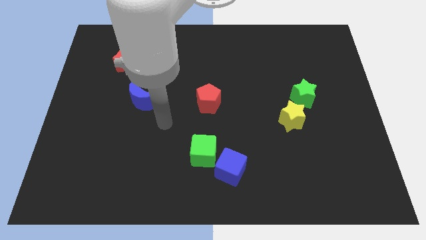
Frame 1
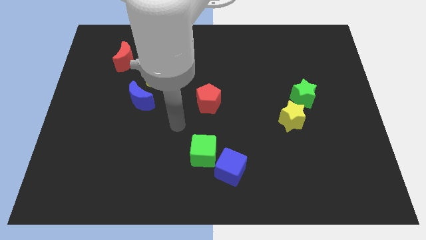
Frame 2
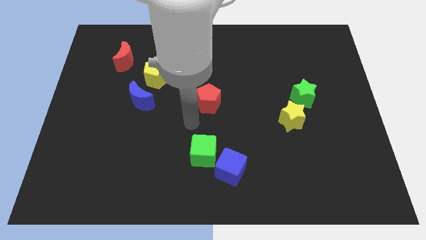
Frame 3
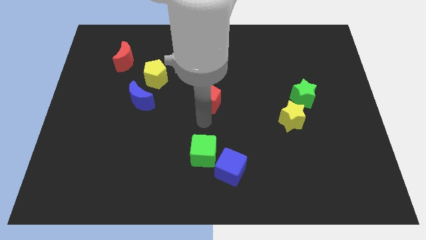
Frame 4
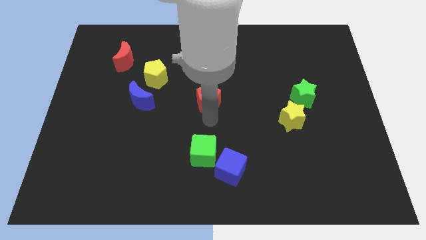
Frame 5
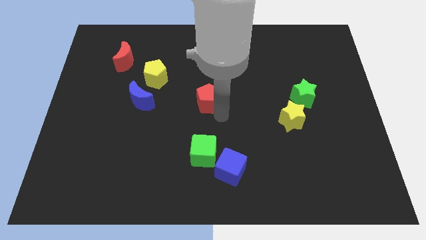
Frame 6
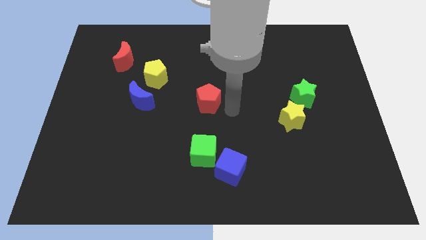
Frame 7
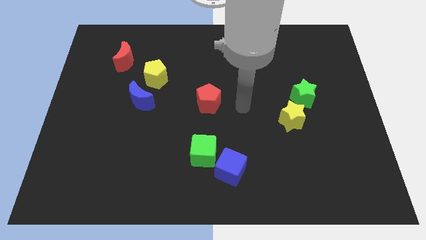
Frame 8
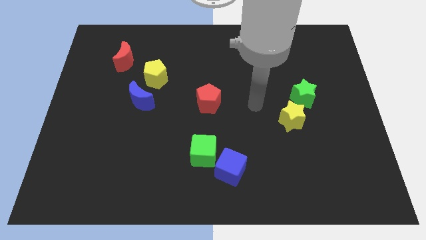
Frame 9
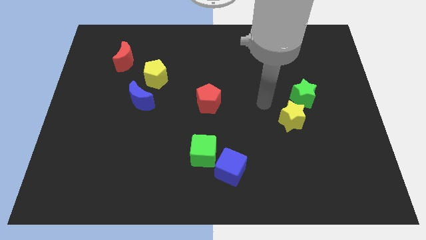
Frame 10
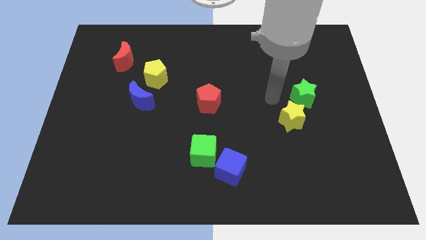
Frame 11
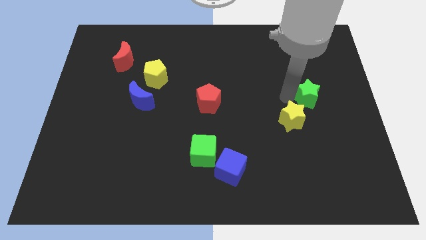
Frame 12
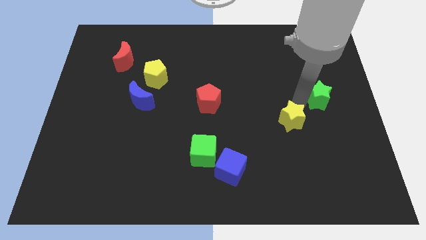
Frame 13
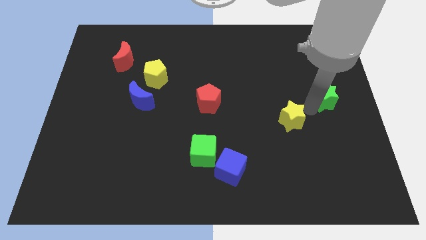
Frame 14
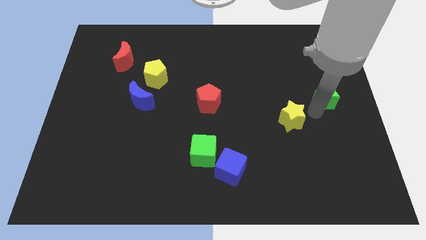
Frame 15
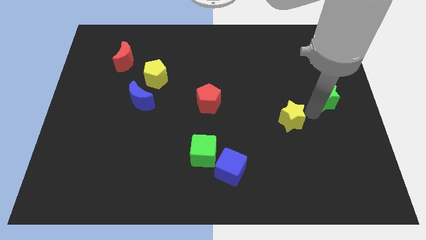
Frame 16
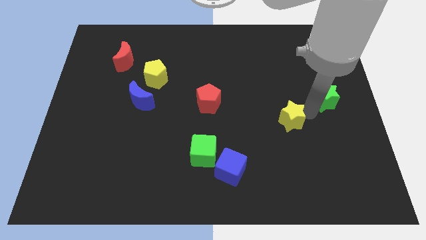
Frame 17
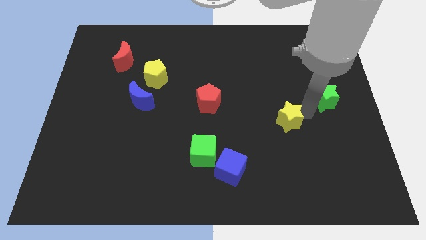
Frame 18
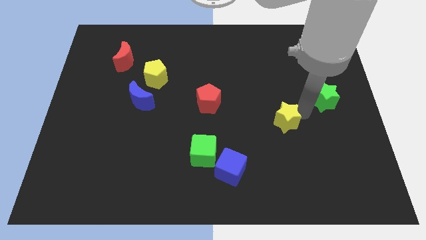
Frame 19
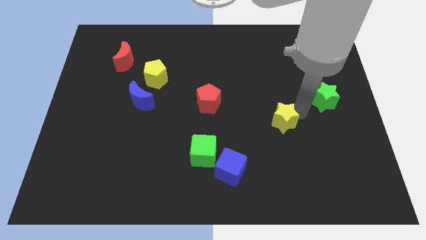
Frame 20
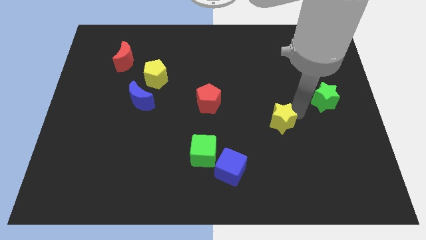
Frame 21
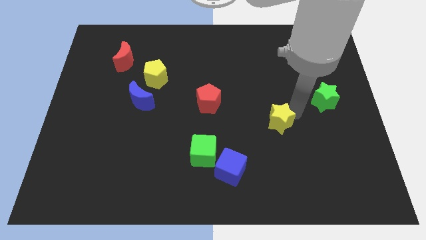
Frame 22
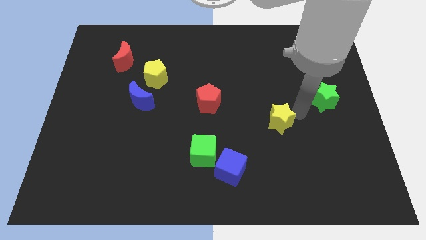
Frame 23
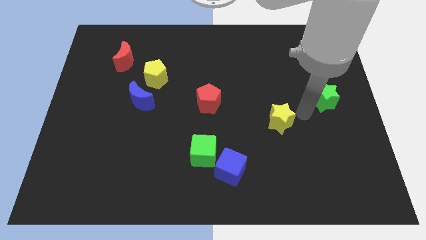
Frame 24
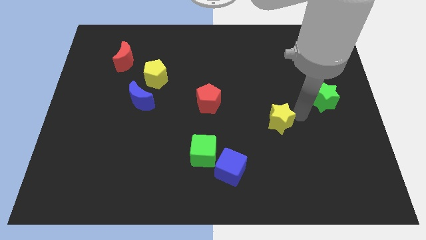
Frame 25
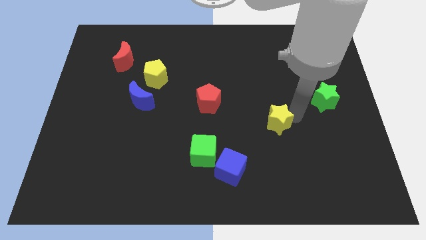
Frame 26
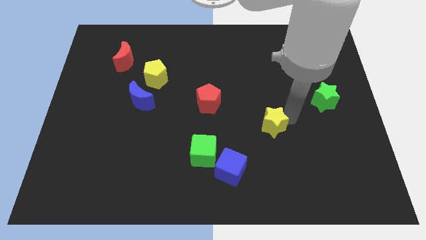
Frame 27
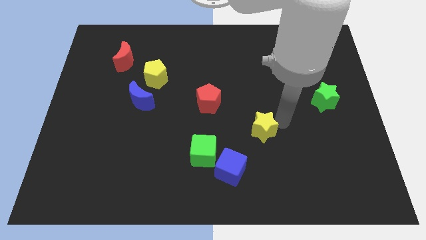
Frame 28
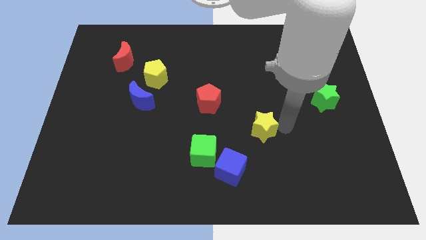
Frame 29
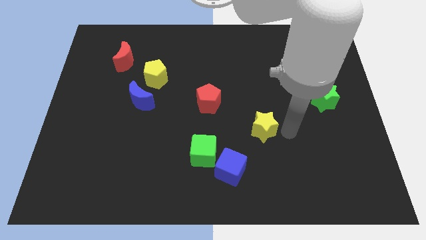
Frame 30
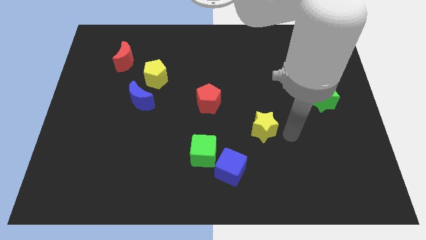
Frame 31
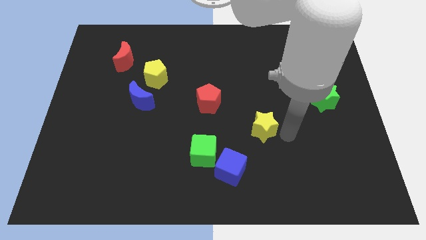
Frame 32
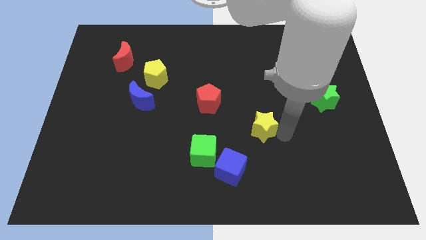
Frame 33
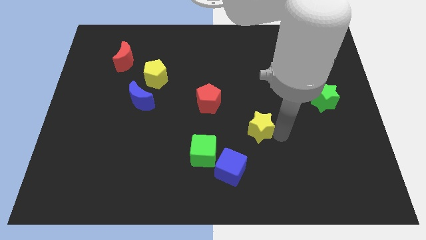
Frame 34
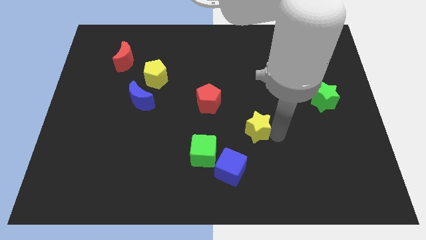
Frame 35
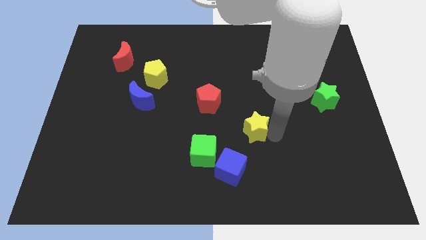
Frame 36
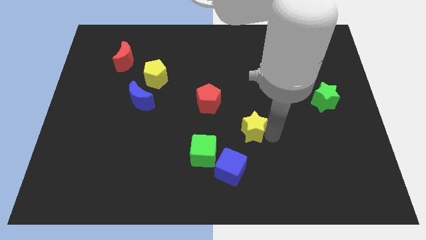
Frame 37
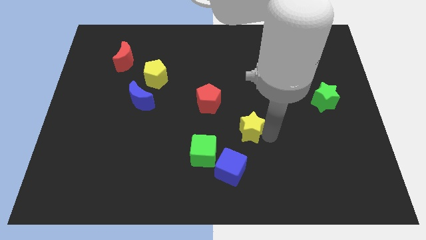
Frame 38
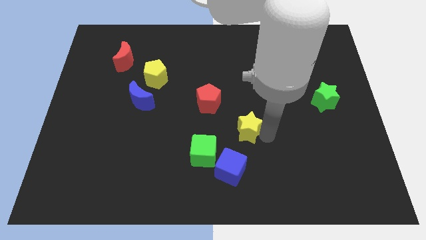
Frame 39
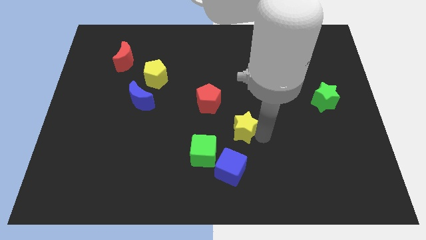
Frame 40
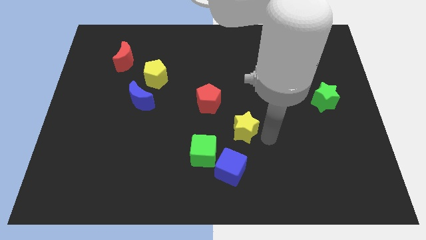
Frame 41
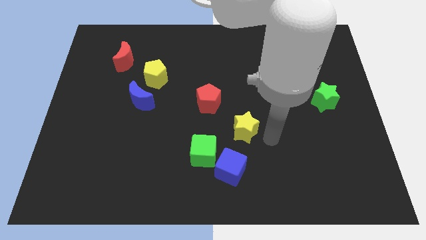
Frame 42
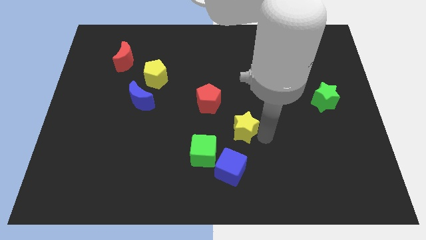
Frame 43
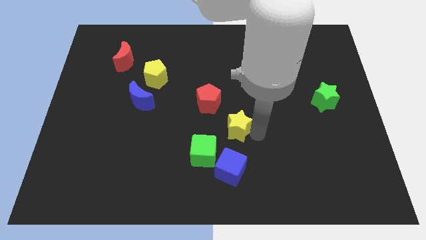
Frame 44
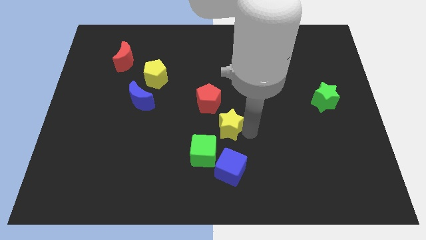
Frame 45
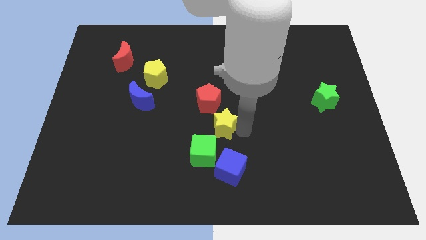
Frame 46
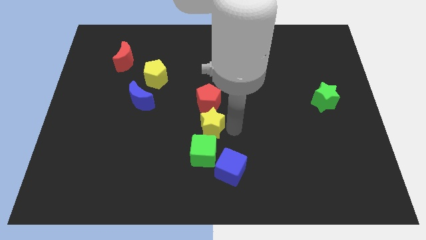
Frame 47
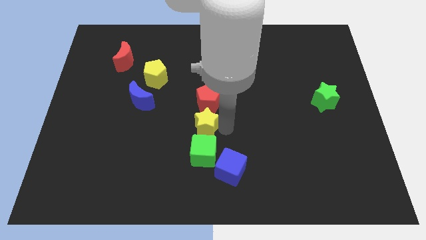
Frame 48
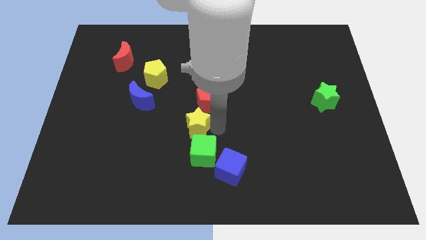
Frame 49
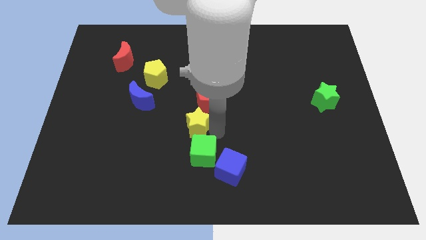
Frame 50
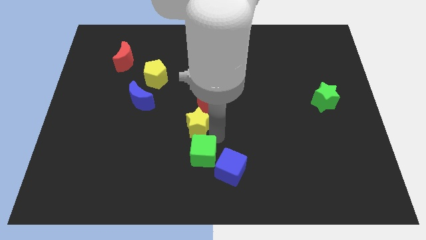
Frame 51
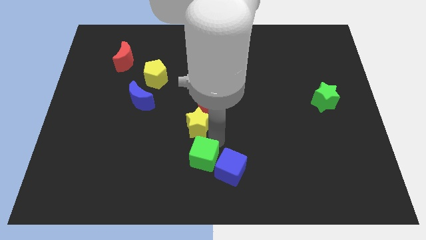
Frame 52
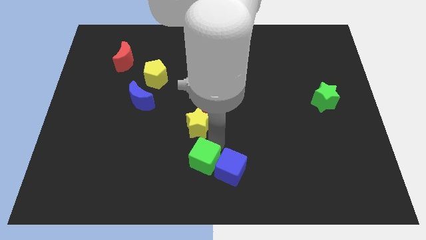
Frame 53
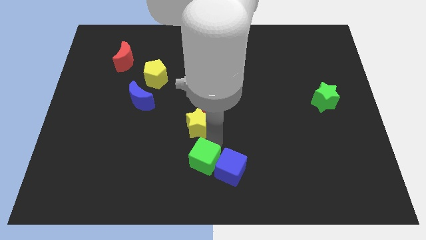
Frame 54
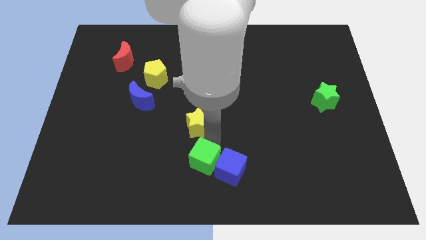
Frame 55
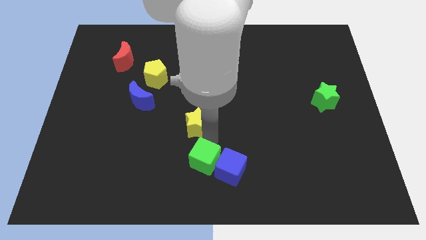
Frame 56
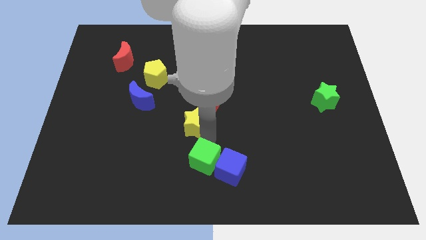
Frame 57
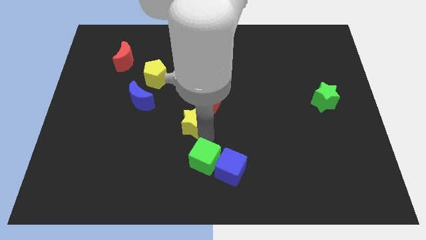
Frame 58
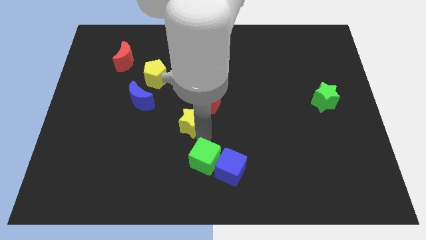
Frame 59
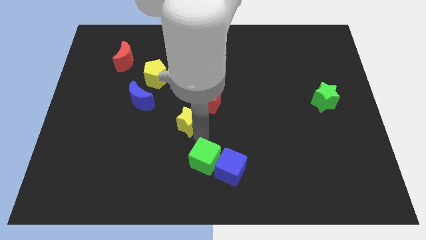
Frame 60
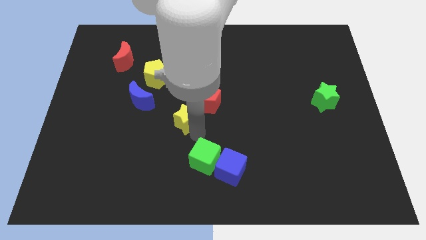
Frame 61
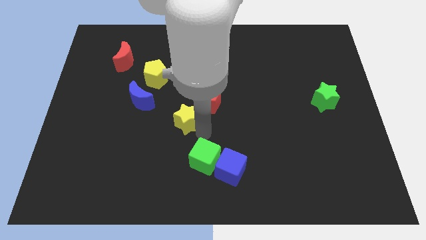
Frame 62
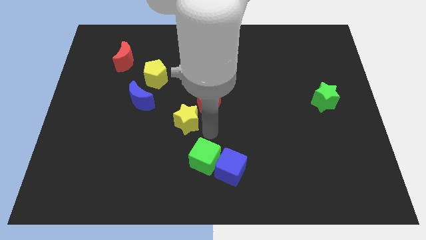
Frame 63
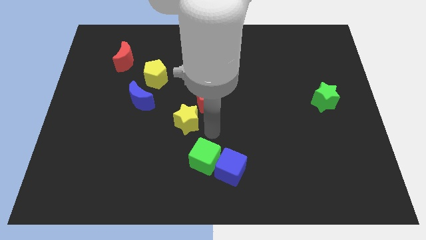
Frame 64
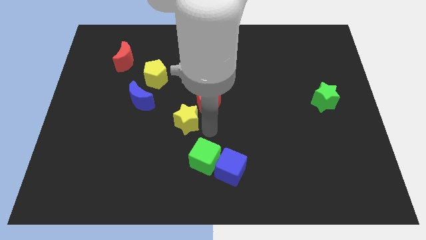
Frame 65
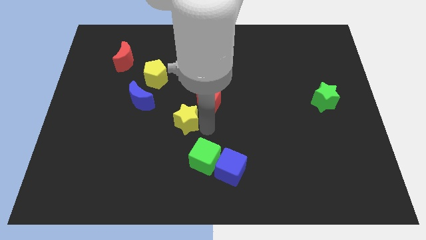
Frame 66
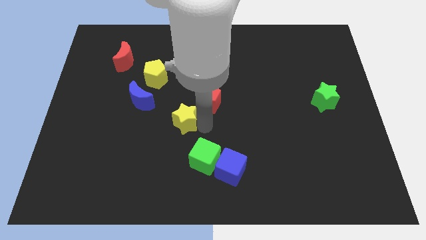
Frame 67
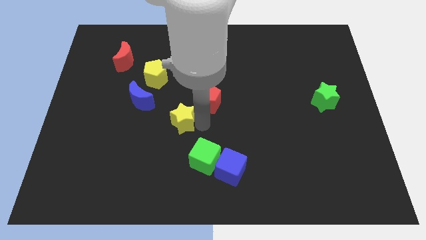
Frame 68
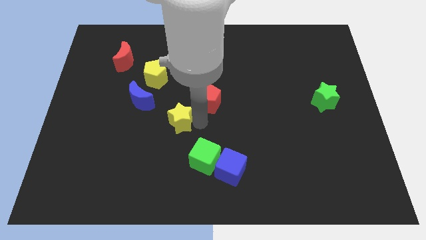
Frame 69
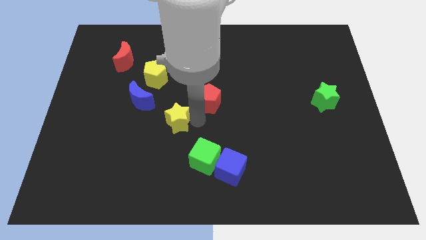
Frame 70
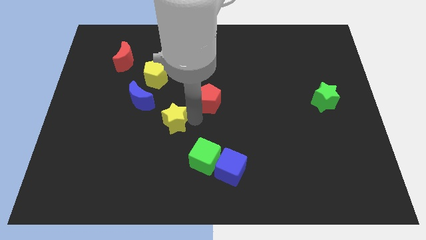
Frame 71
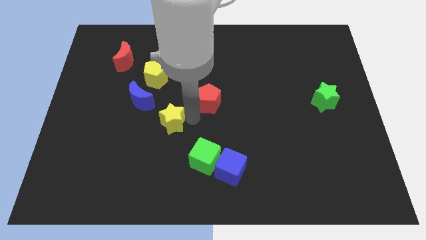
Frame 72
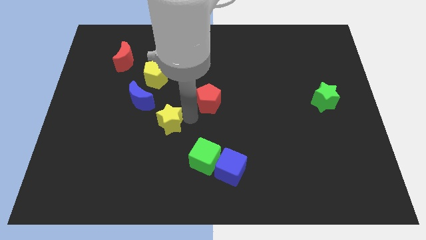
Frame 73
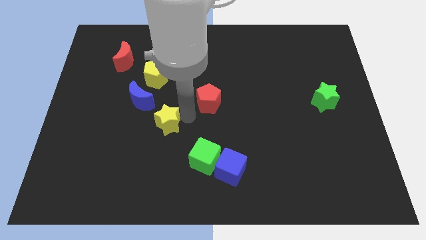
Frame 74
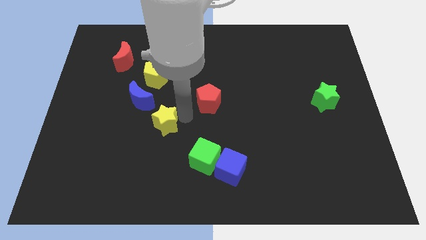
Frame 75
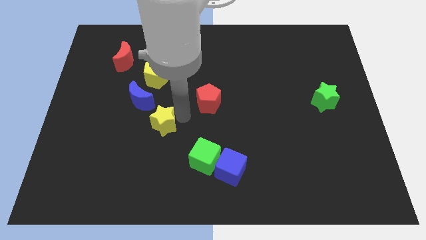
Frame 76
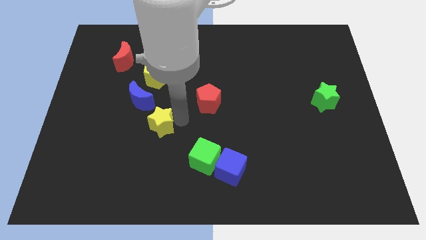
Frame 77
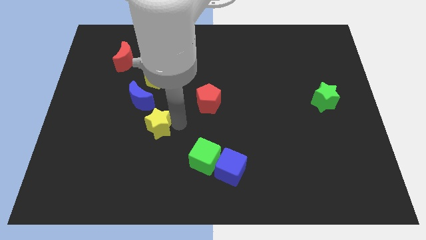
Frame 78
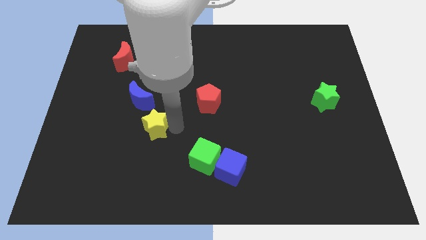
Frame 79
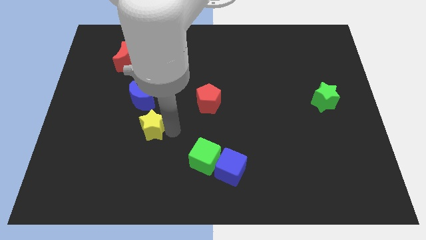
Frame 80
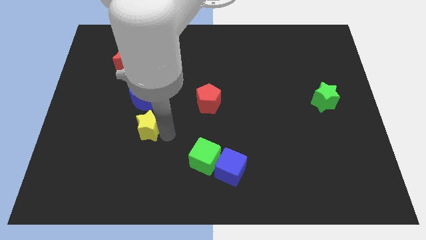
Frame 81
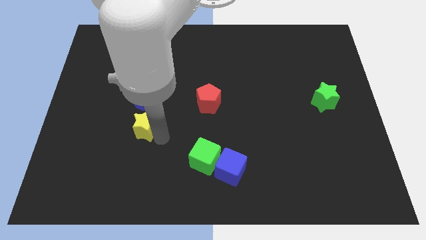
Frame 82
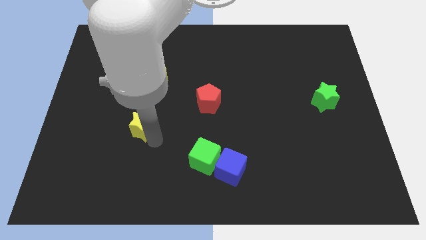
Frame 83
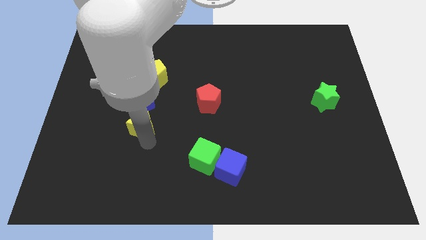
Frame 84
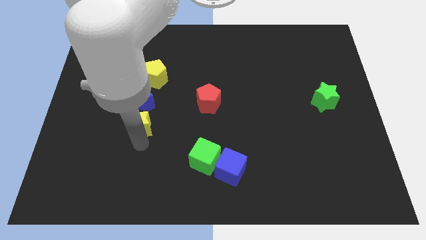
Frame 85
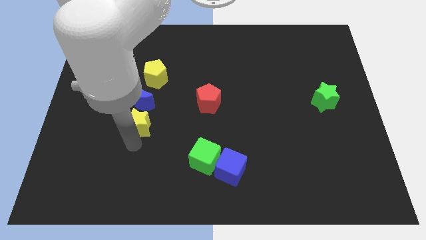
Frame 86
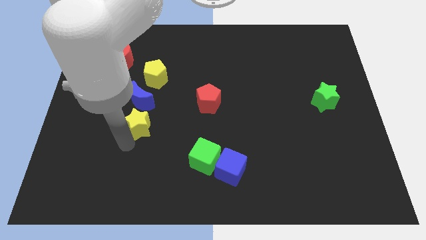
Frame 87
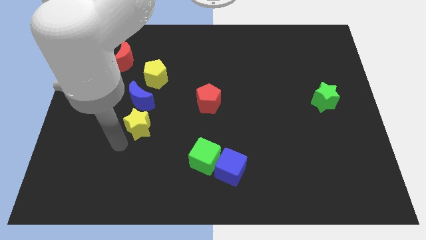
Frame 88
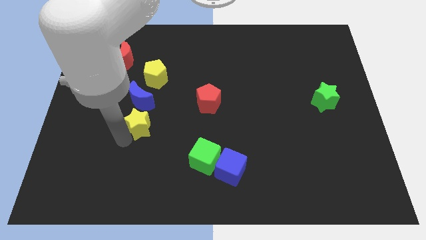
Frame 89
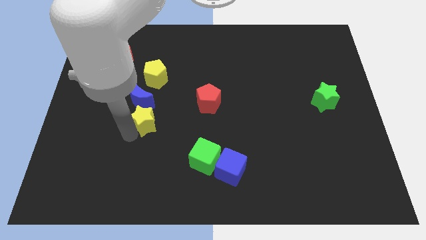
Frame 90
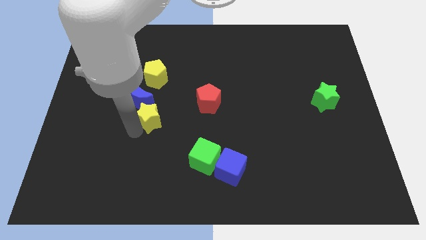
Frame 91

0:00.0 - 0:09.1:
push the yellow star to the blue moon
